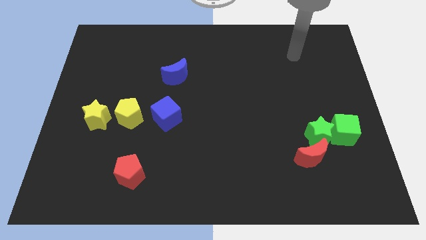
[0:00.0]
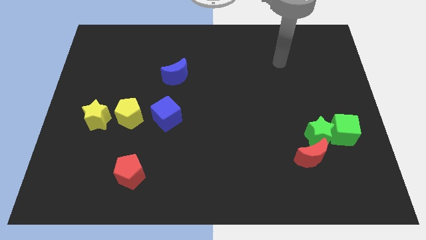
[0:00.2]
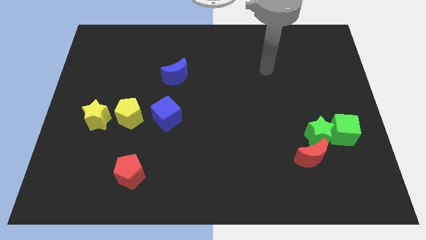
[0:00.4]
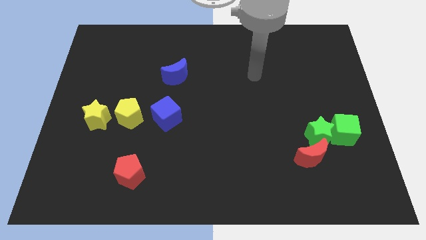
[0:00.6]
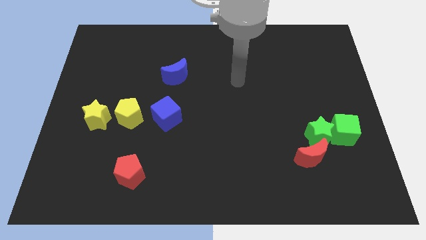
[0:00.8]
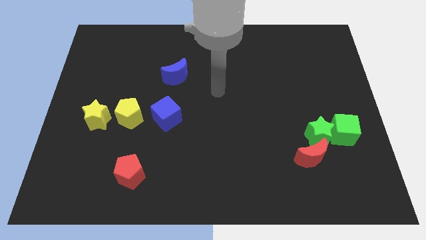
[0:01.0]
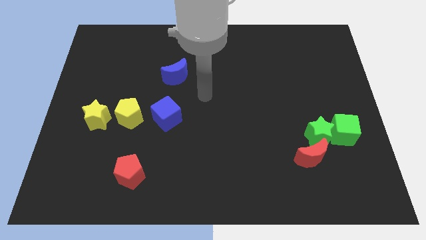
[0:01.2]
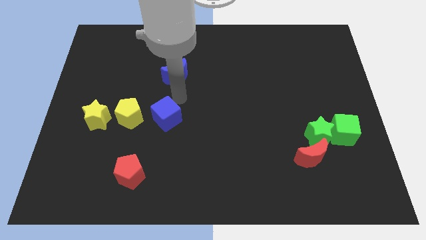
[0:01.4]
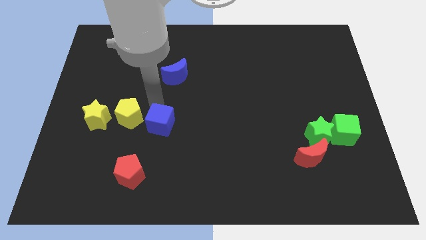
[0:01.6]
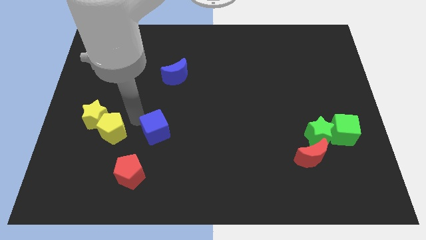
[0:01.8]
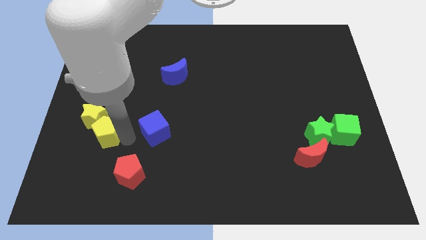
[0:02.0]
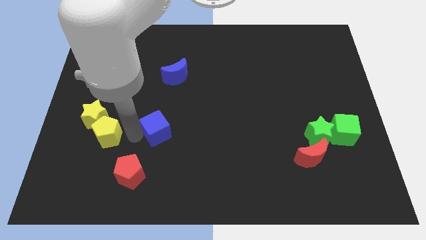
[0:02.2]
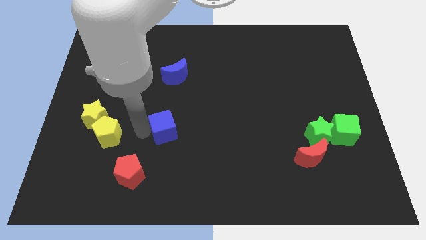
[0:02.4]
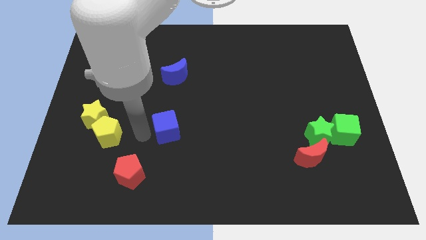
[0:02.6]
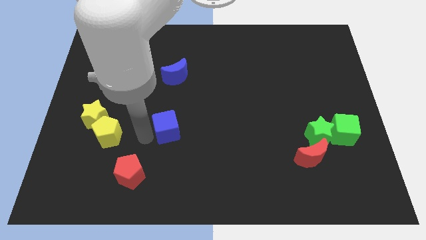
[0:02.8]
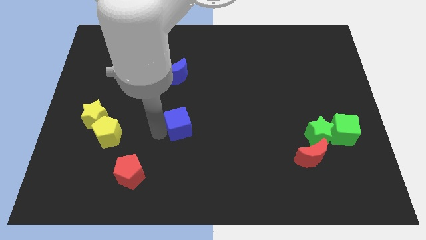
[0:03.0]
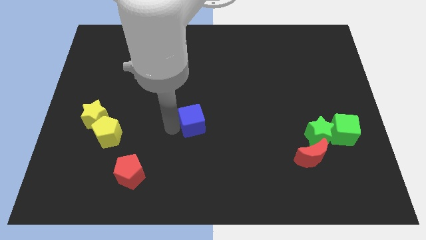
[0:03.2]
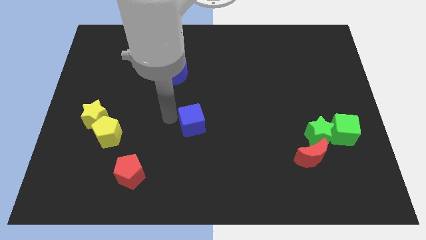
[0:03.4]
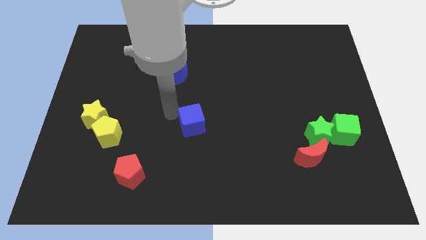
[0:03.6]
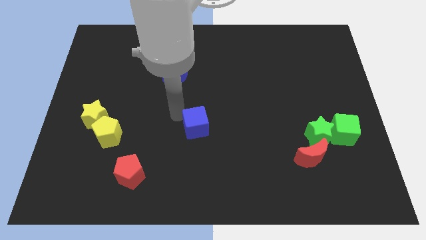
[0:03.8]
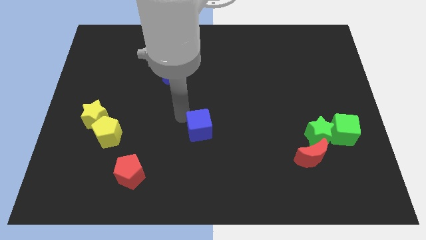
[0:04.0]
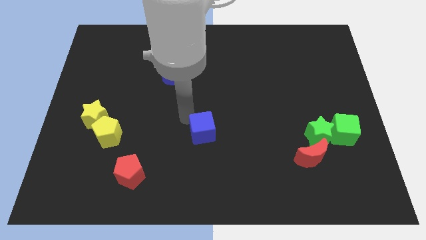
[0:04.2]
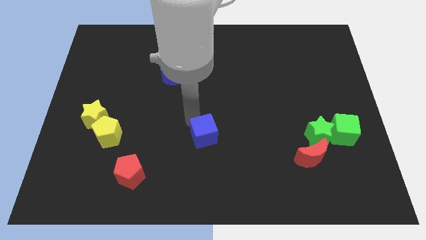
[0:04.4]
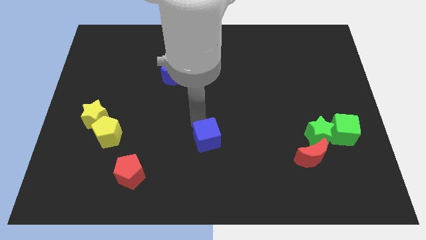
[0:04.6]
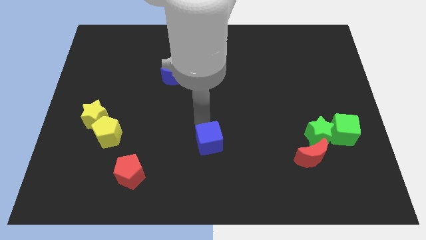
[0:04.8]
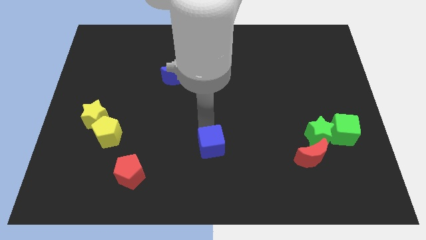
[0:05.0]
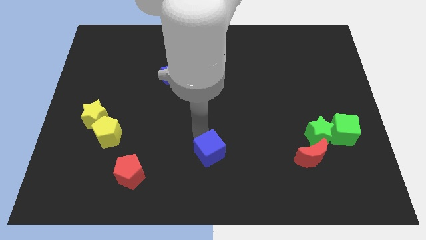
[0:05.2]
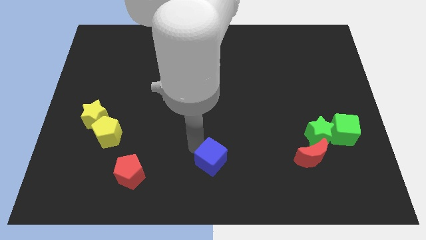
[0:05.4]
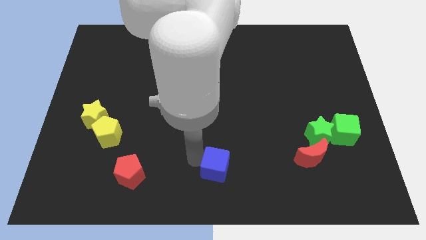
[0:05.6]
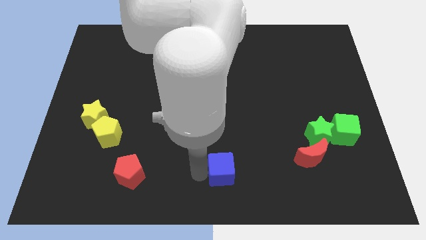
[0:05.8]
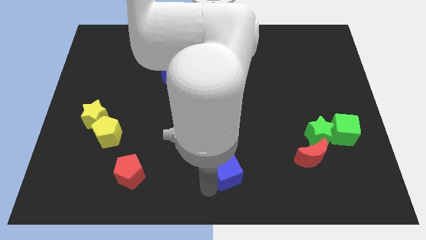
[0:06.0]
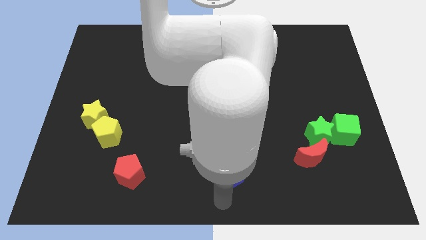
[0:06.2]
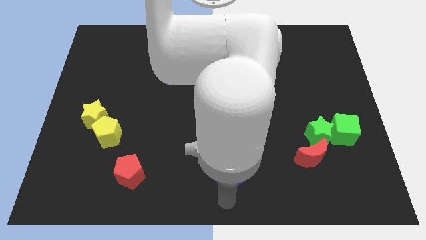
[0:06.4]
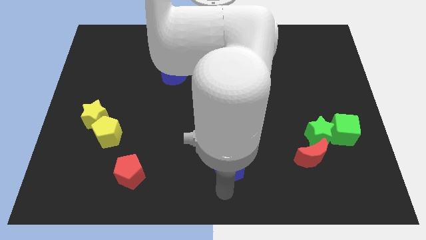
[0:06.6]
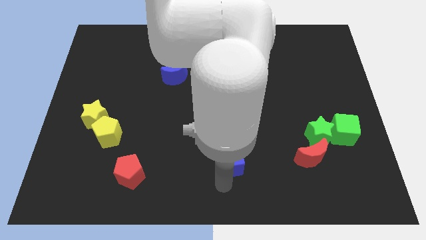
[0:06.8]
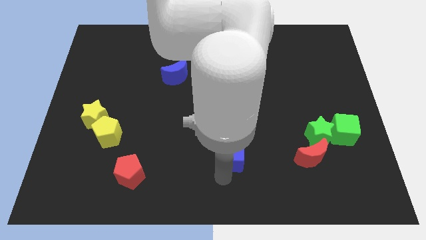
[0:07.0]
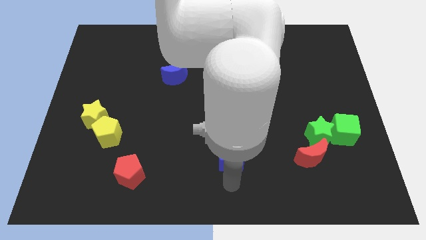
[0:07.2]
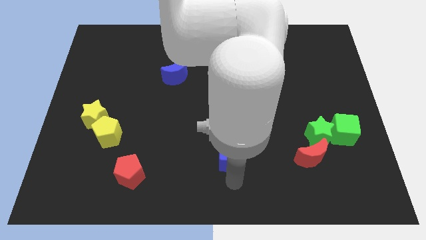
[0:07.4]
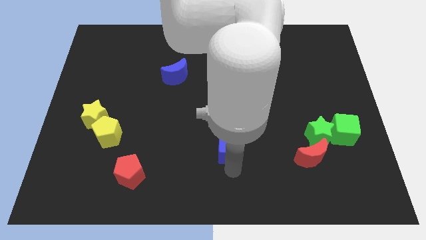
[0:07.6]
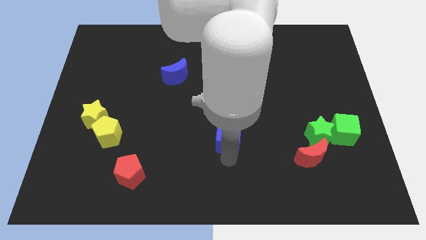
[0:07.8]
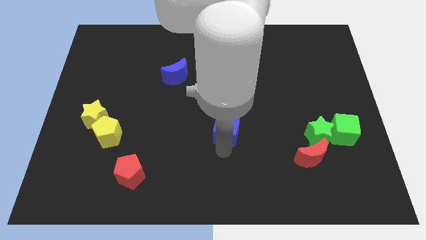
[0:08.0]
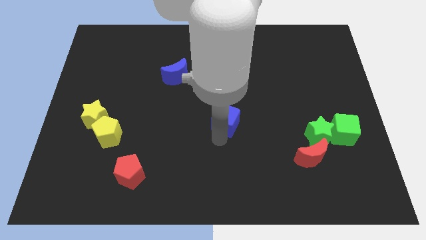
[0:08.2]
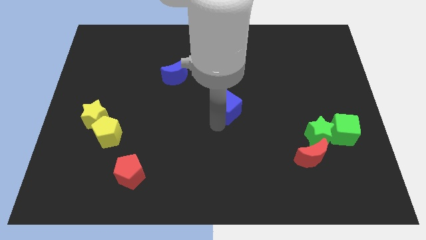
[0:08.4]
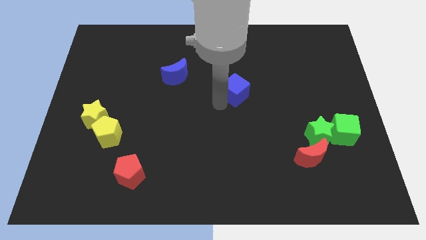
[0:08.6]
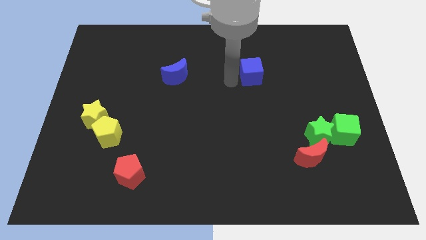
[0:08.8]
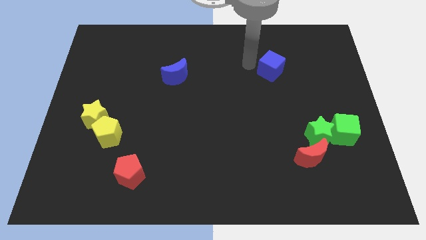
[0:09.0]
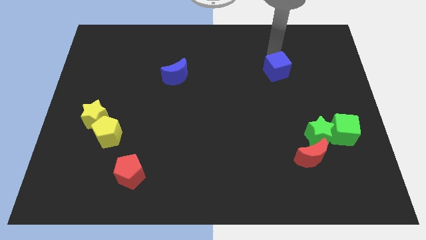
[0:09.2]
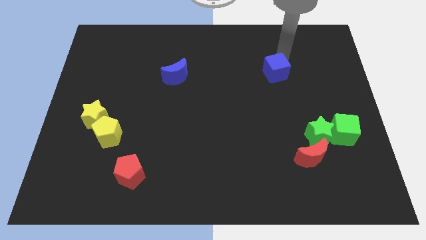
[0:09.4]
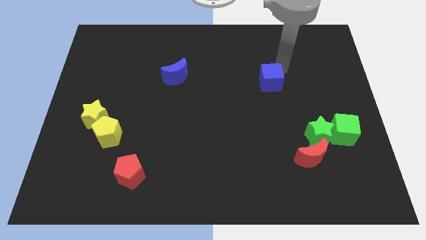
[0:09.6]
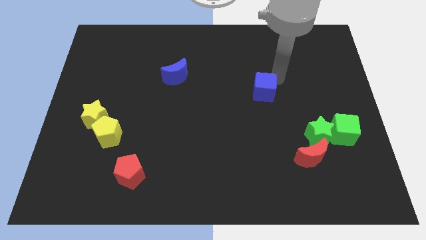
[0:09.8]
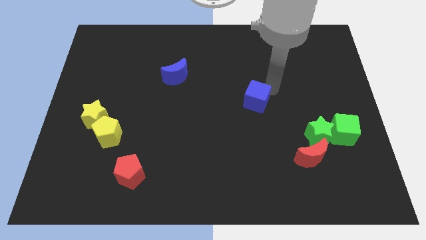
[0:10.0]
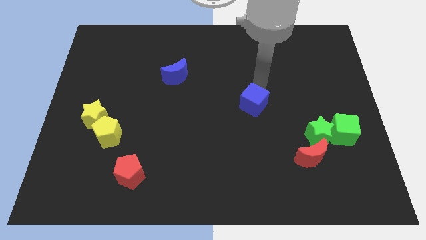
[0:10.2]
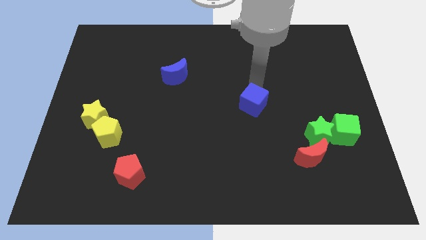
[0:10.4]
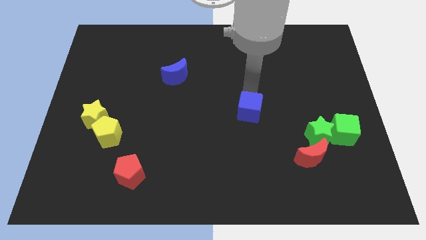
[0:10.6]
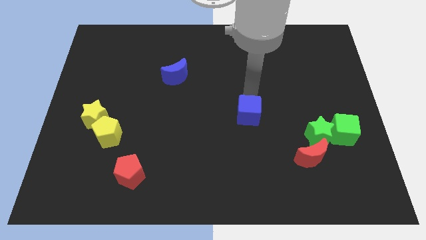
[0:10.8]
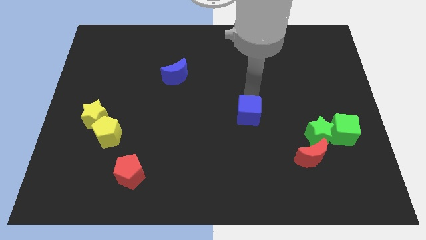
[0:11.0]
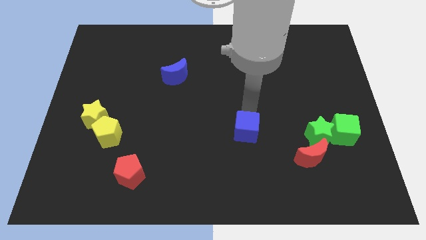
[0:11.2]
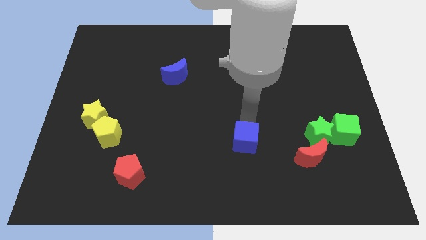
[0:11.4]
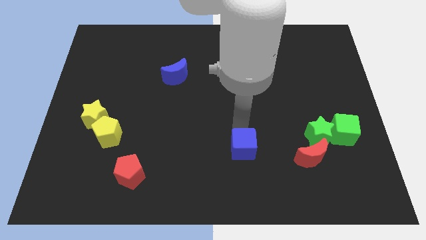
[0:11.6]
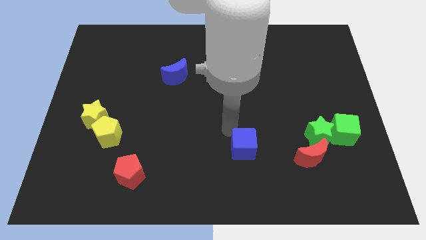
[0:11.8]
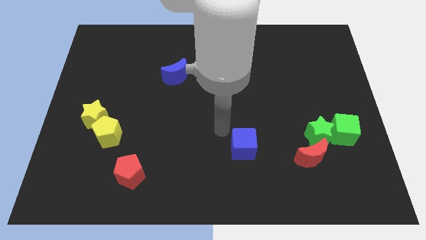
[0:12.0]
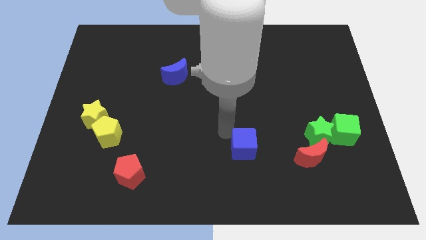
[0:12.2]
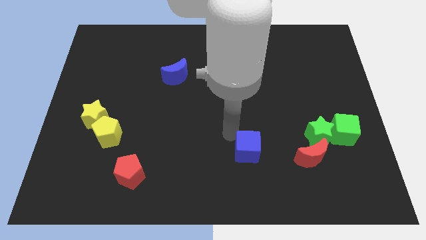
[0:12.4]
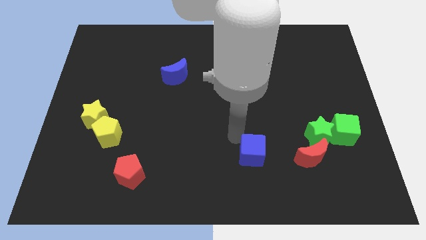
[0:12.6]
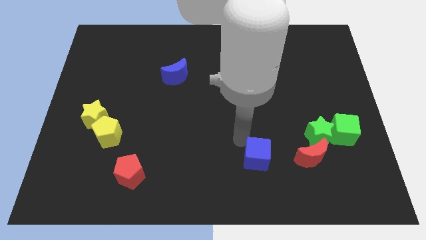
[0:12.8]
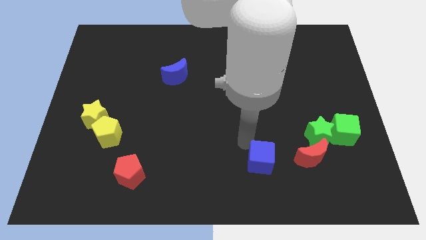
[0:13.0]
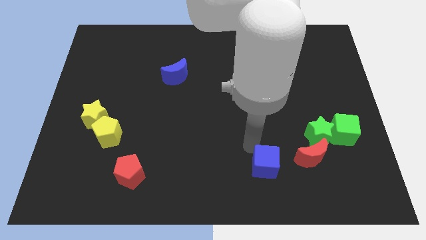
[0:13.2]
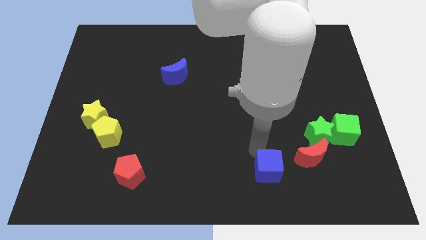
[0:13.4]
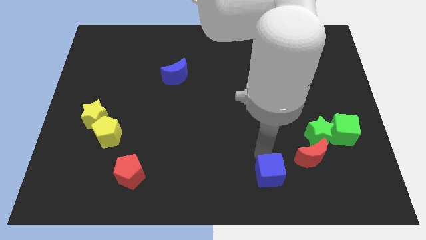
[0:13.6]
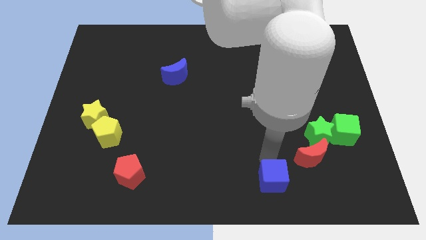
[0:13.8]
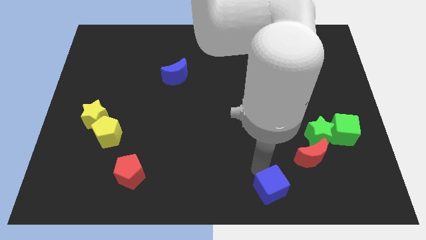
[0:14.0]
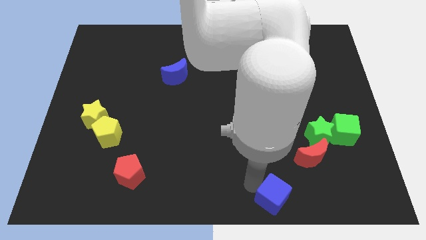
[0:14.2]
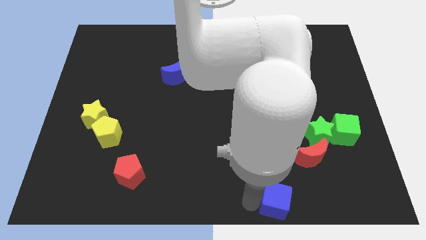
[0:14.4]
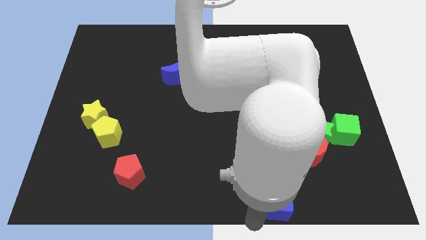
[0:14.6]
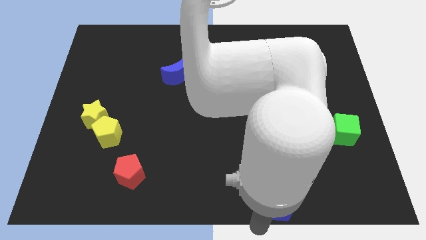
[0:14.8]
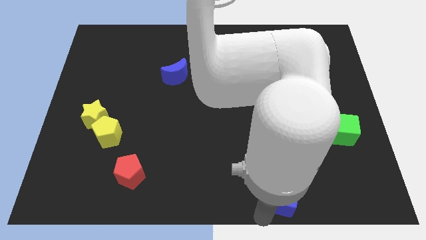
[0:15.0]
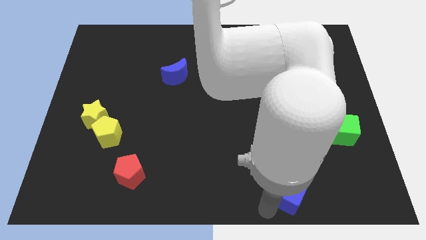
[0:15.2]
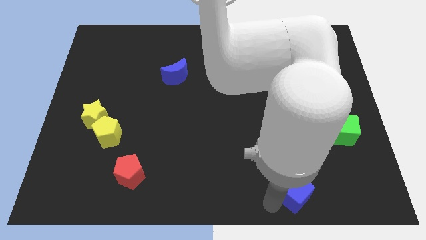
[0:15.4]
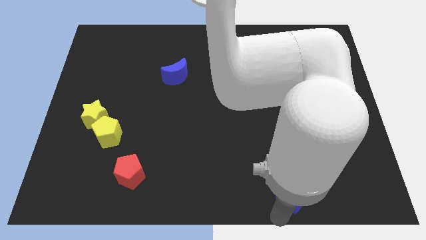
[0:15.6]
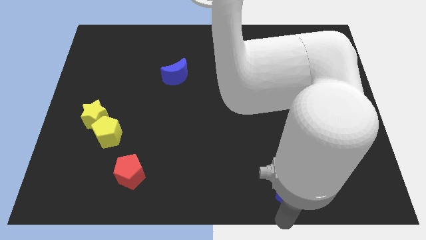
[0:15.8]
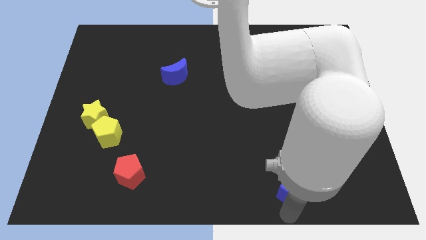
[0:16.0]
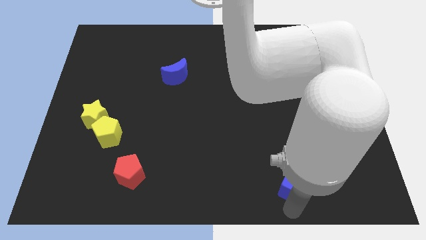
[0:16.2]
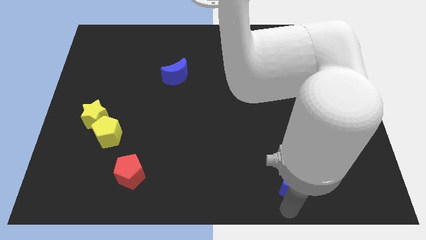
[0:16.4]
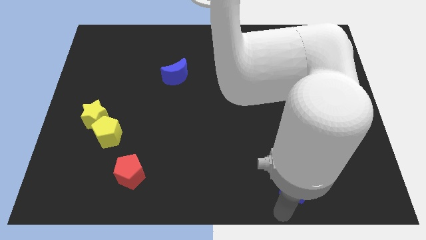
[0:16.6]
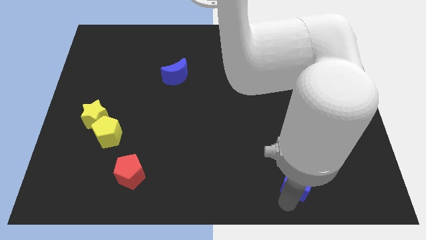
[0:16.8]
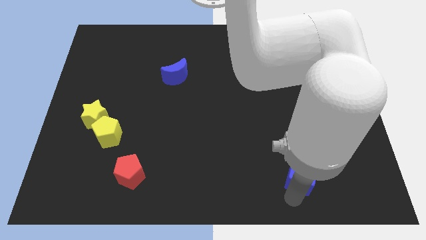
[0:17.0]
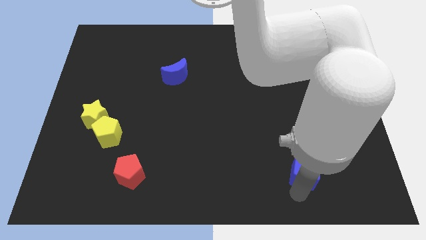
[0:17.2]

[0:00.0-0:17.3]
put the blue cube to the bottom of the green star
